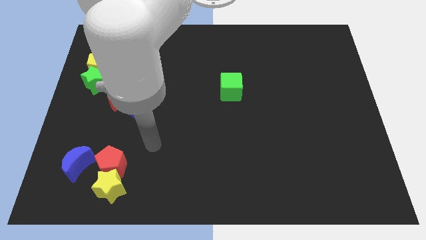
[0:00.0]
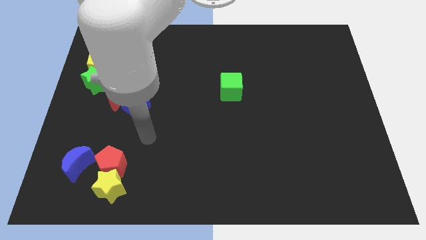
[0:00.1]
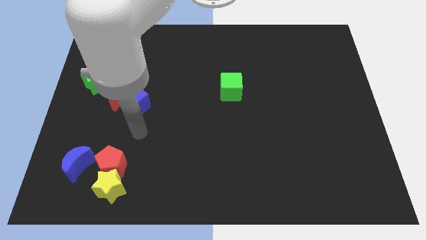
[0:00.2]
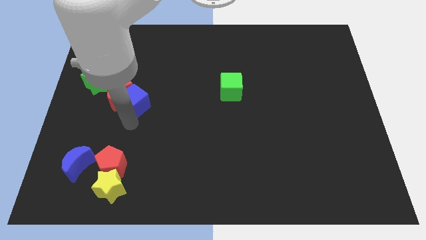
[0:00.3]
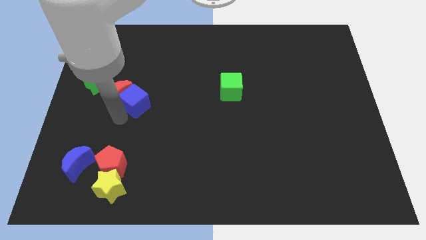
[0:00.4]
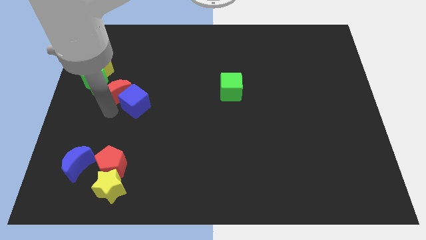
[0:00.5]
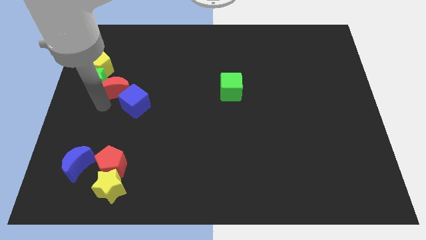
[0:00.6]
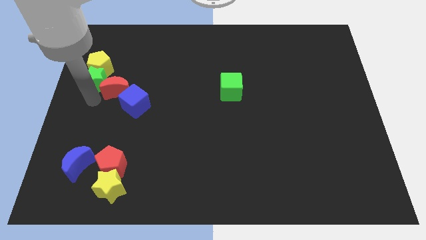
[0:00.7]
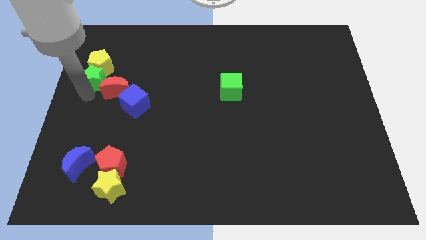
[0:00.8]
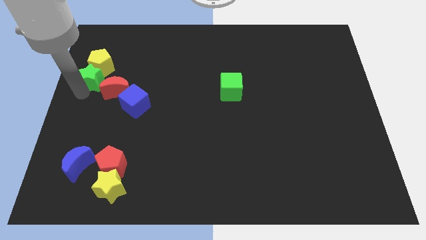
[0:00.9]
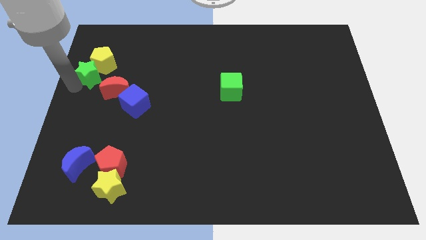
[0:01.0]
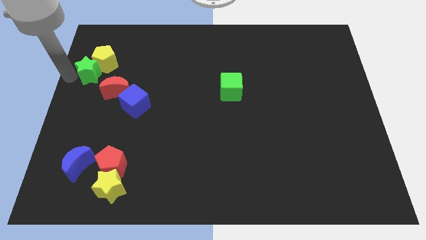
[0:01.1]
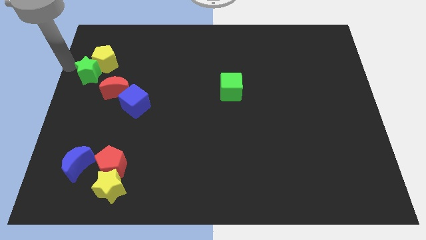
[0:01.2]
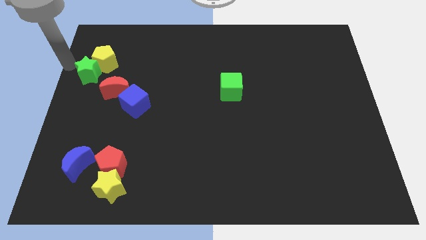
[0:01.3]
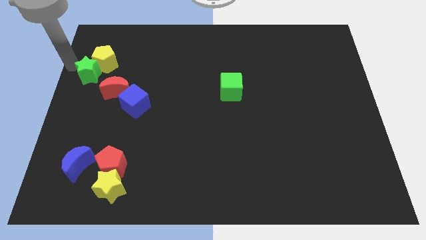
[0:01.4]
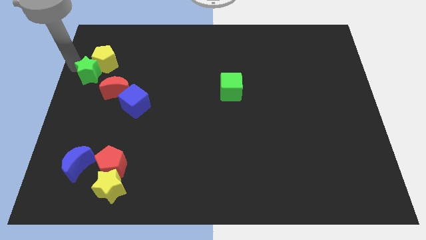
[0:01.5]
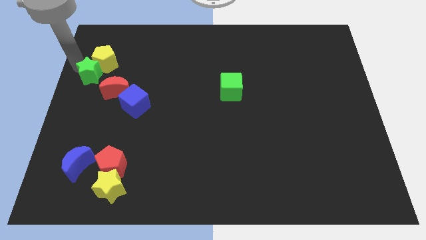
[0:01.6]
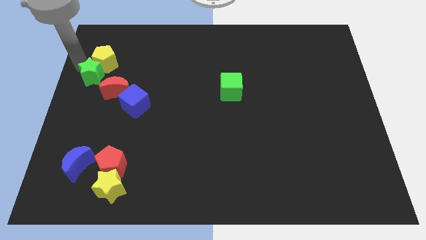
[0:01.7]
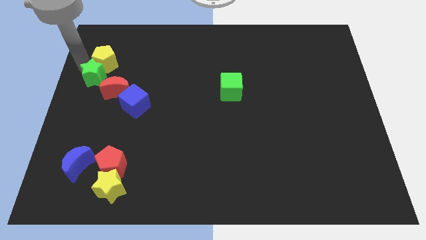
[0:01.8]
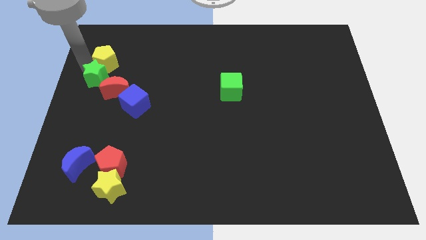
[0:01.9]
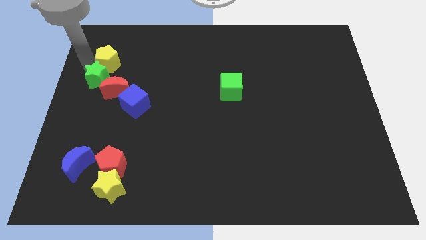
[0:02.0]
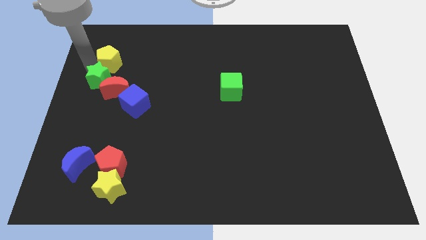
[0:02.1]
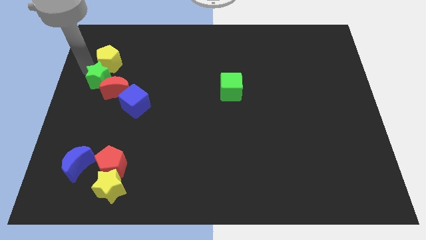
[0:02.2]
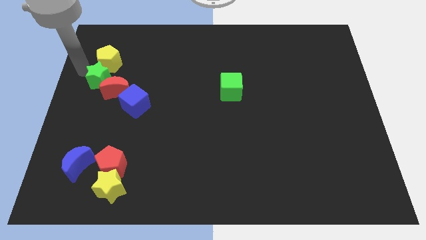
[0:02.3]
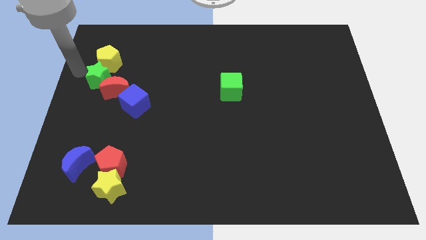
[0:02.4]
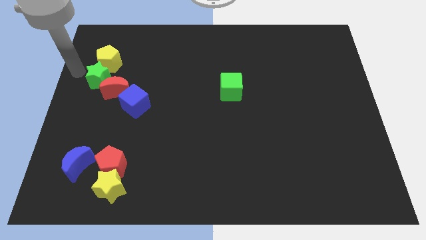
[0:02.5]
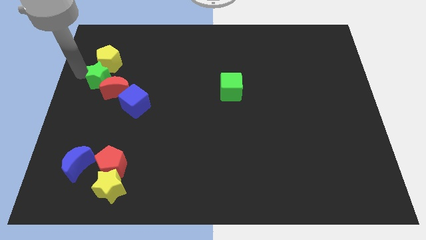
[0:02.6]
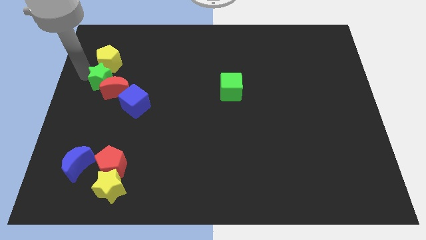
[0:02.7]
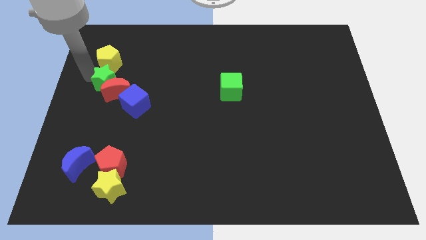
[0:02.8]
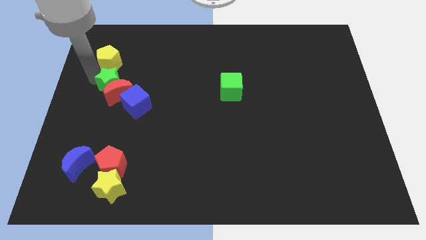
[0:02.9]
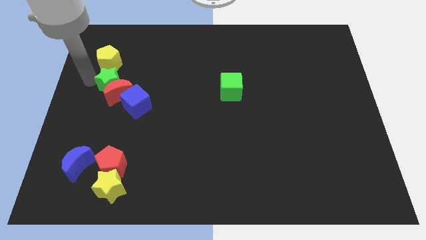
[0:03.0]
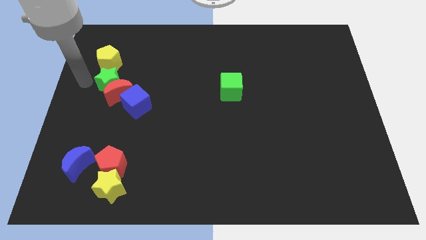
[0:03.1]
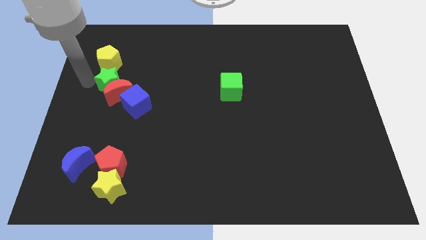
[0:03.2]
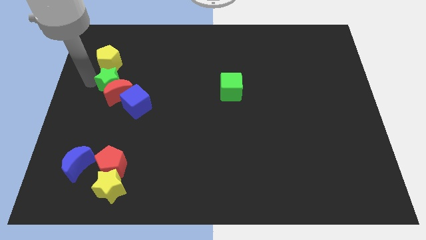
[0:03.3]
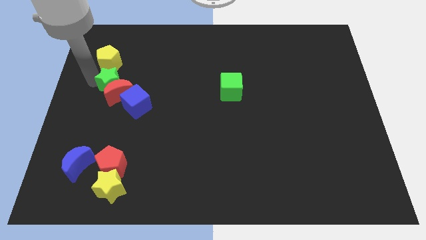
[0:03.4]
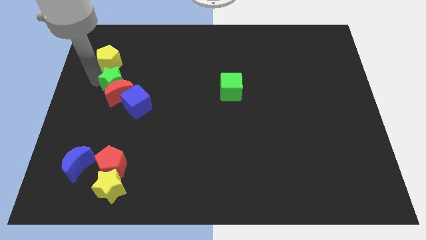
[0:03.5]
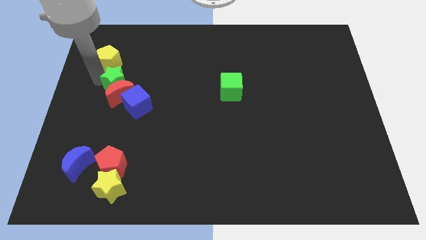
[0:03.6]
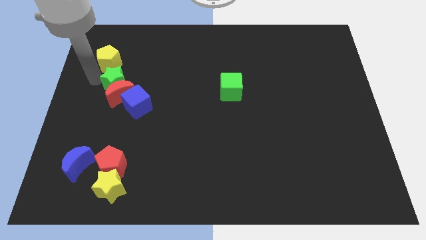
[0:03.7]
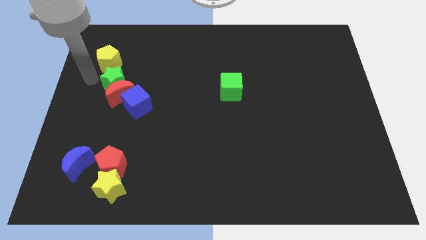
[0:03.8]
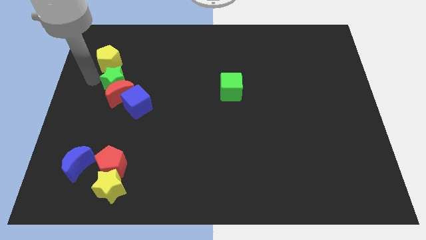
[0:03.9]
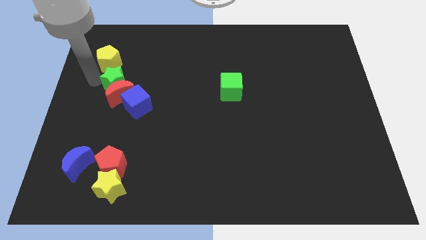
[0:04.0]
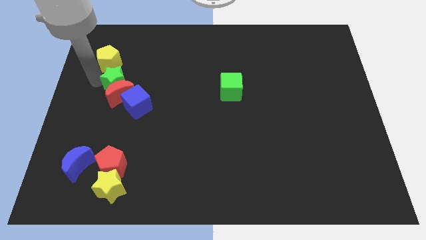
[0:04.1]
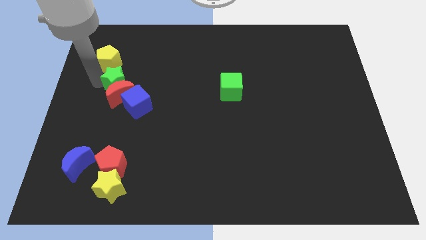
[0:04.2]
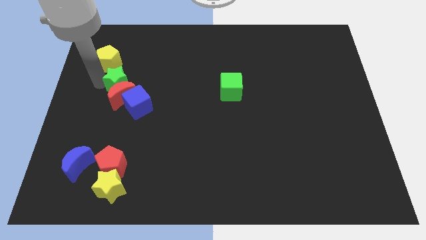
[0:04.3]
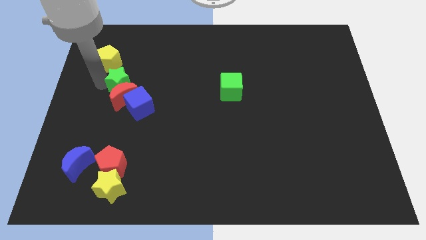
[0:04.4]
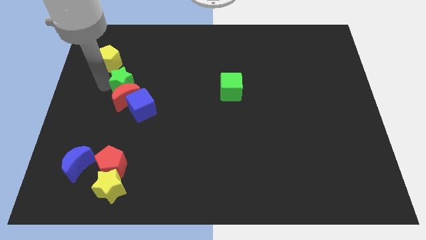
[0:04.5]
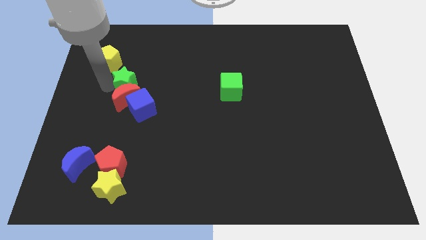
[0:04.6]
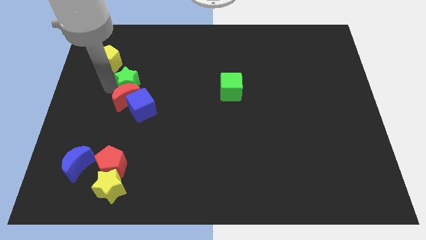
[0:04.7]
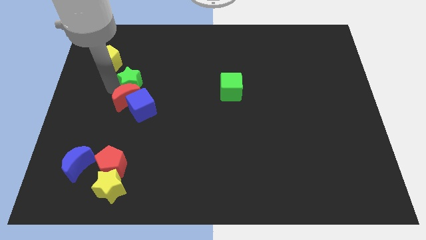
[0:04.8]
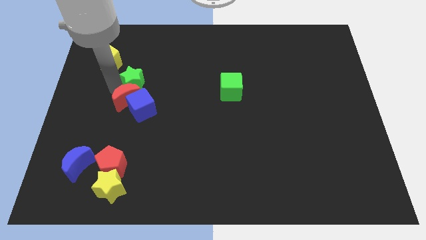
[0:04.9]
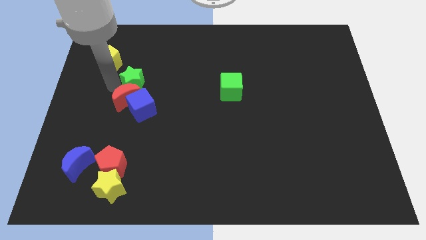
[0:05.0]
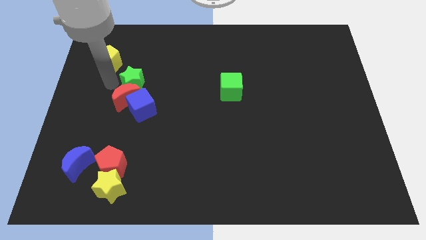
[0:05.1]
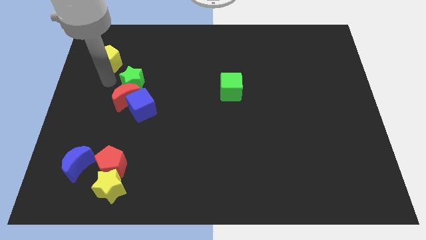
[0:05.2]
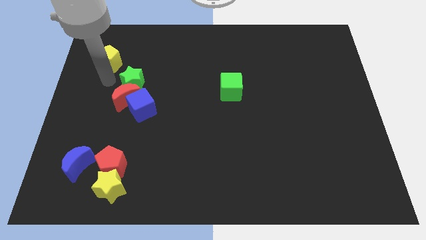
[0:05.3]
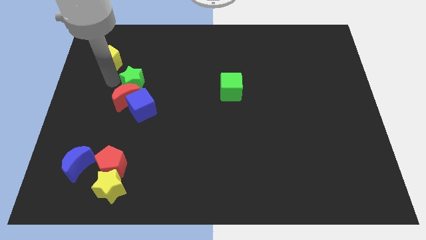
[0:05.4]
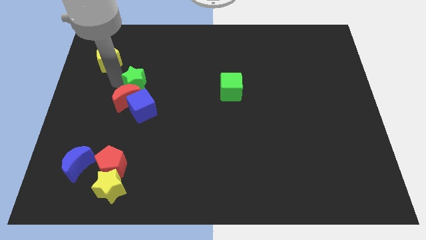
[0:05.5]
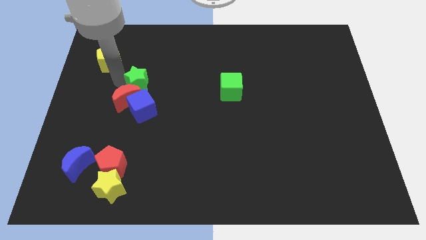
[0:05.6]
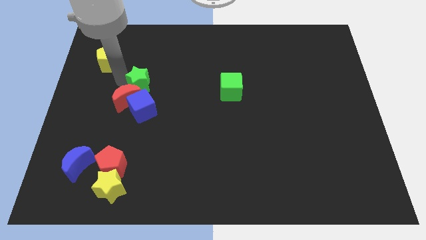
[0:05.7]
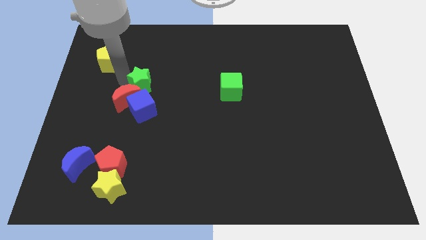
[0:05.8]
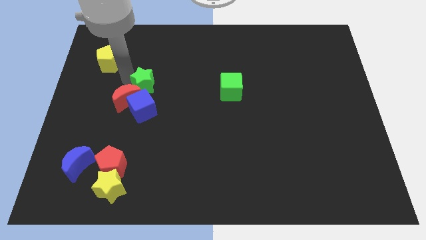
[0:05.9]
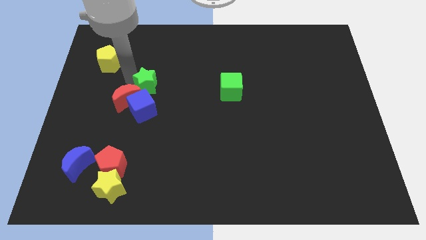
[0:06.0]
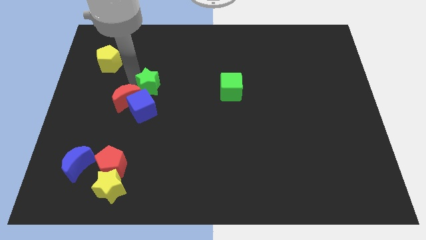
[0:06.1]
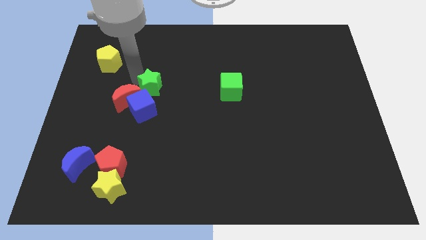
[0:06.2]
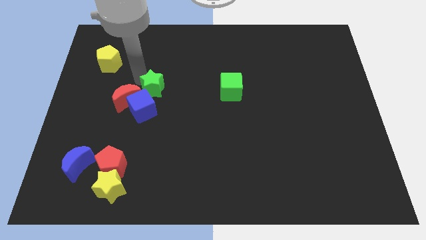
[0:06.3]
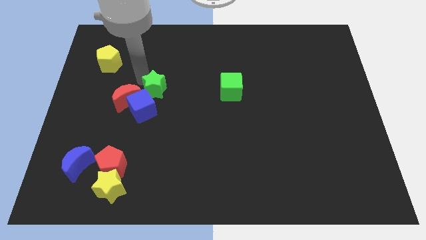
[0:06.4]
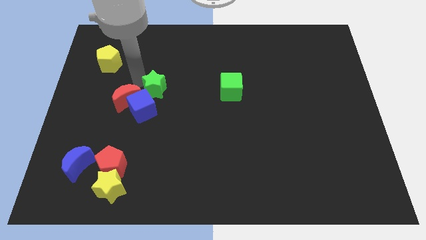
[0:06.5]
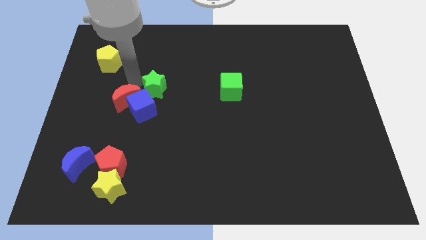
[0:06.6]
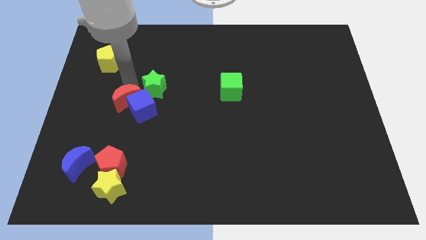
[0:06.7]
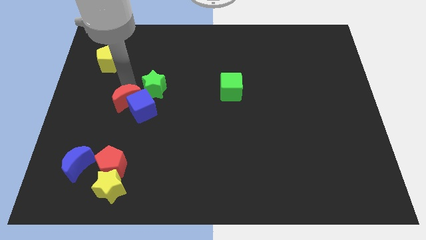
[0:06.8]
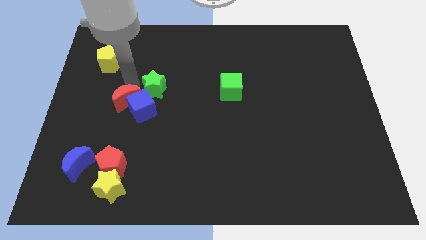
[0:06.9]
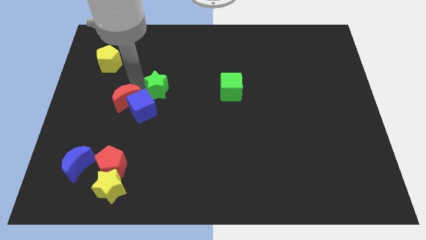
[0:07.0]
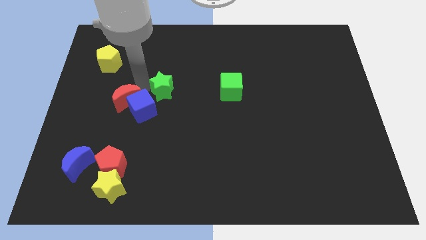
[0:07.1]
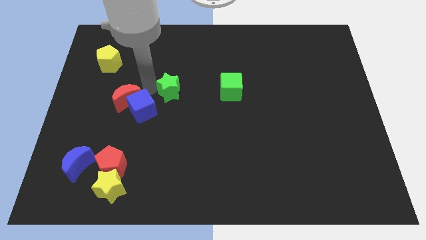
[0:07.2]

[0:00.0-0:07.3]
slide the green star just left of the green cube
